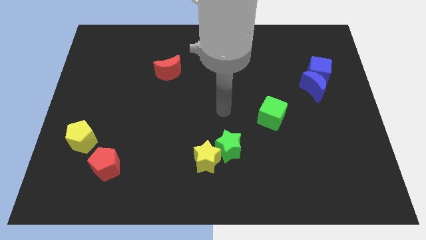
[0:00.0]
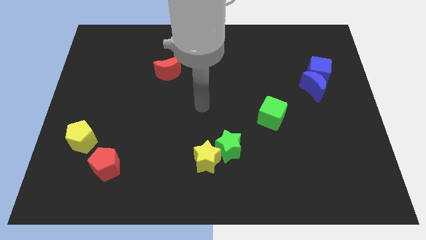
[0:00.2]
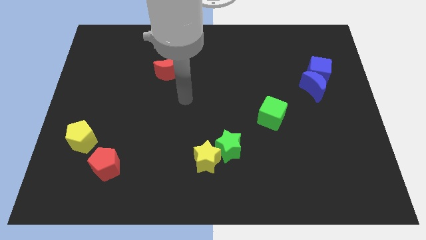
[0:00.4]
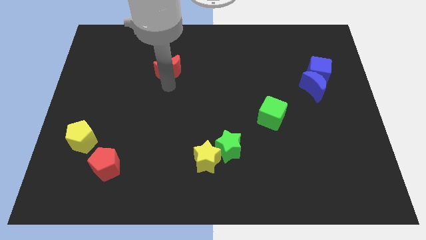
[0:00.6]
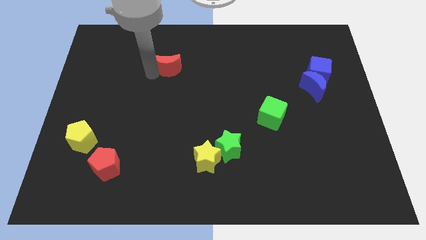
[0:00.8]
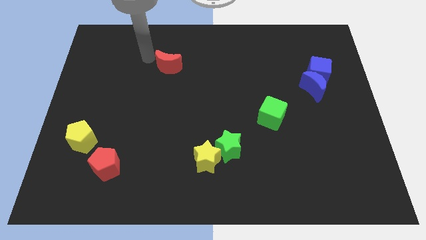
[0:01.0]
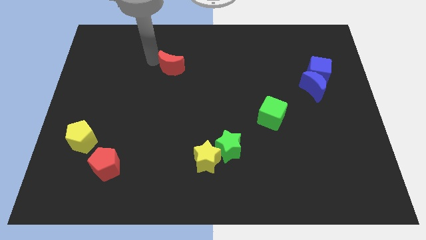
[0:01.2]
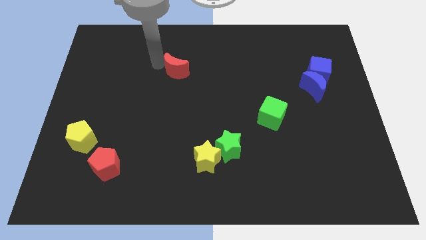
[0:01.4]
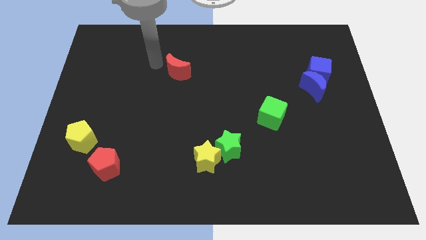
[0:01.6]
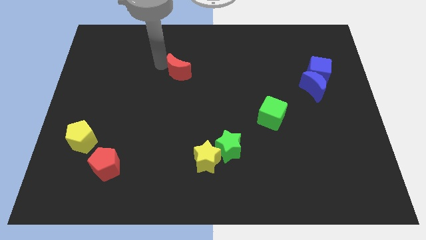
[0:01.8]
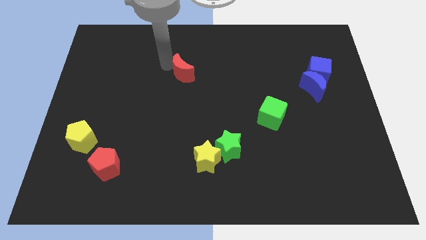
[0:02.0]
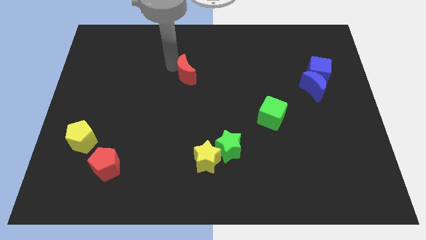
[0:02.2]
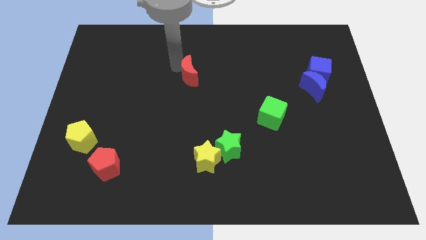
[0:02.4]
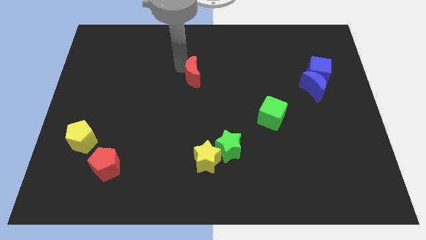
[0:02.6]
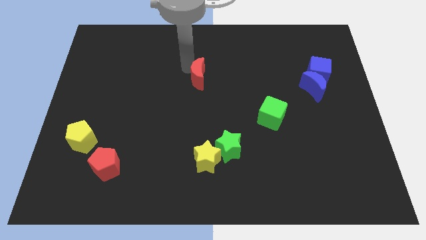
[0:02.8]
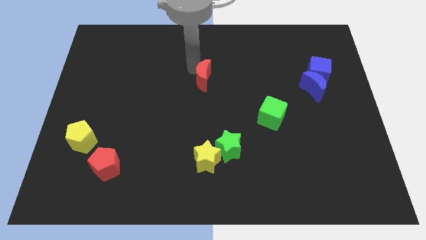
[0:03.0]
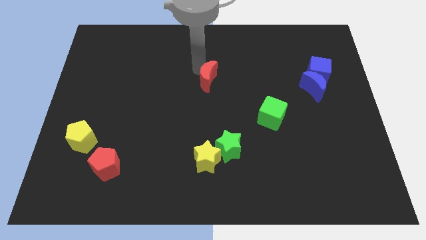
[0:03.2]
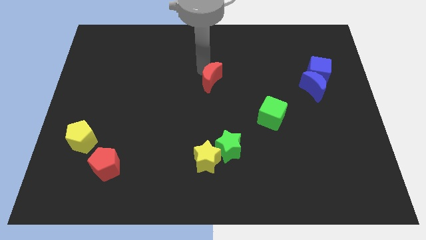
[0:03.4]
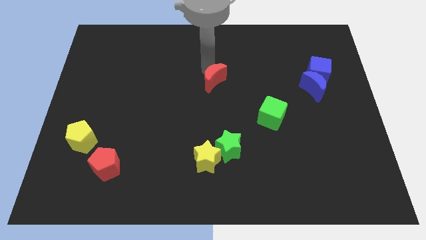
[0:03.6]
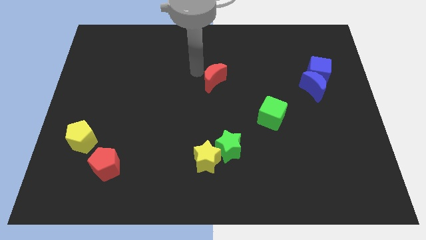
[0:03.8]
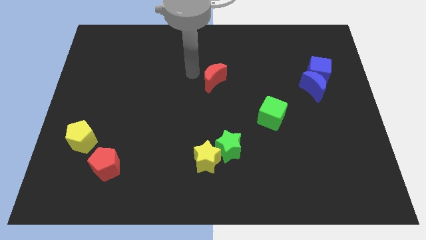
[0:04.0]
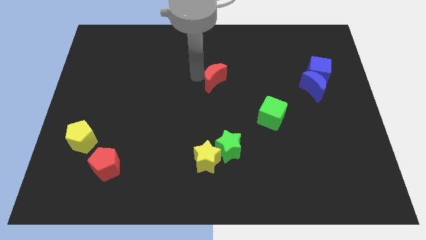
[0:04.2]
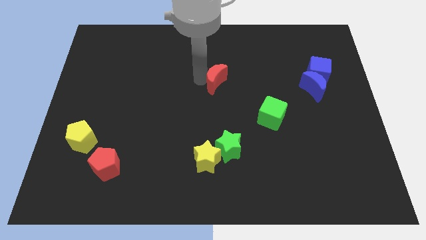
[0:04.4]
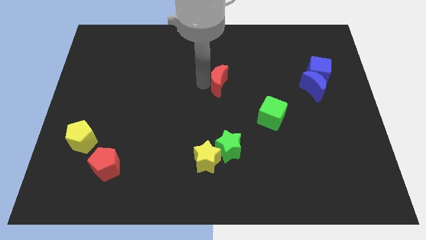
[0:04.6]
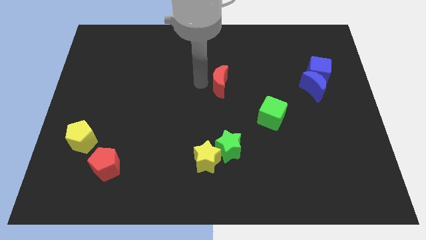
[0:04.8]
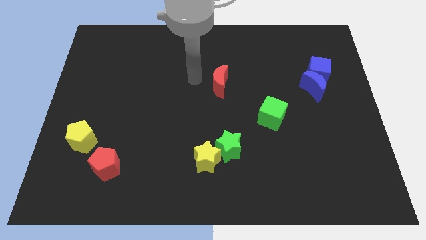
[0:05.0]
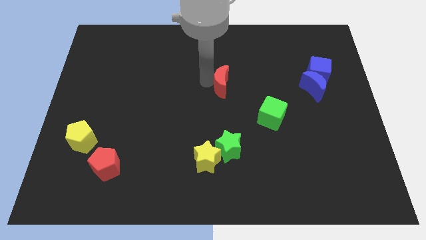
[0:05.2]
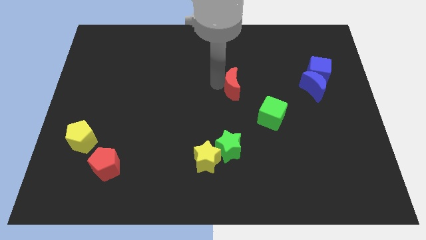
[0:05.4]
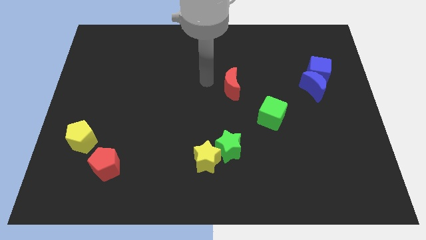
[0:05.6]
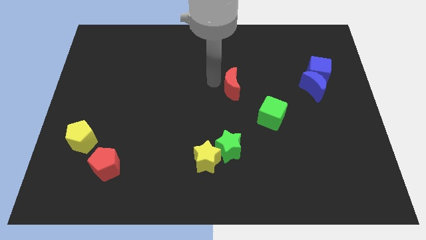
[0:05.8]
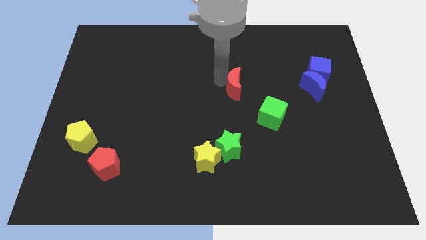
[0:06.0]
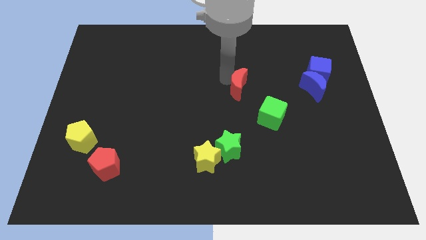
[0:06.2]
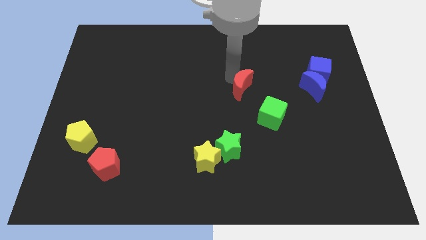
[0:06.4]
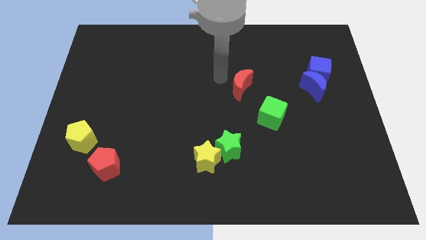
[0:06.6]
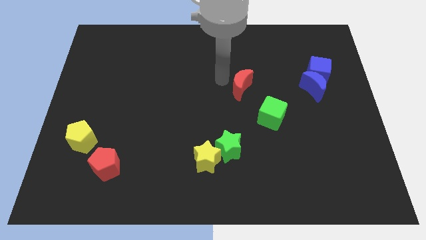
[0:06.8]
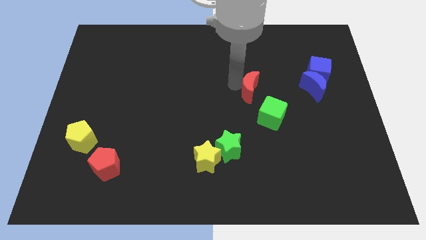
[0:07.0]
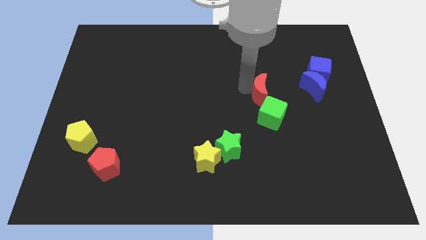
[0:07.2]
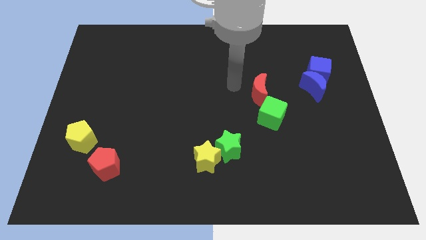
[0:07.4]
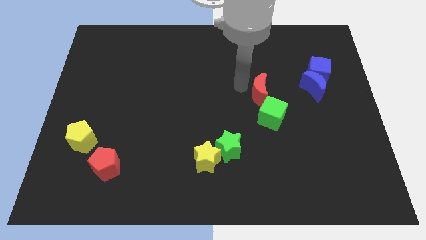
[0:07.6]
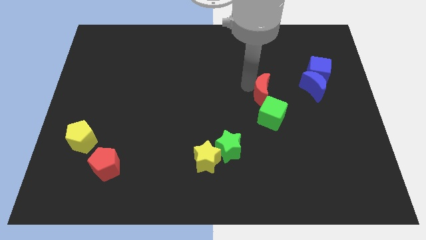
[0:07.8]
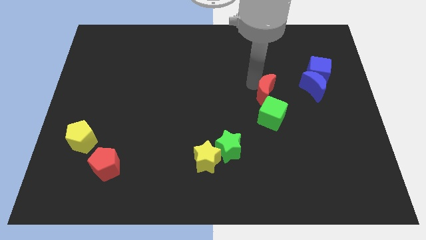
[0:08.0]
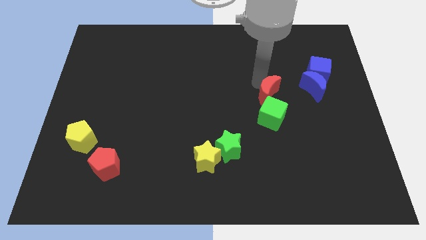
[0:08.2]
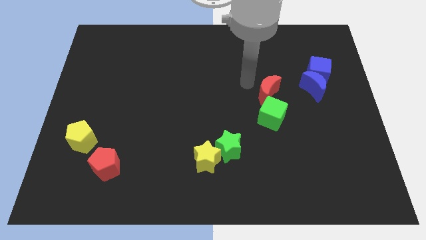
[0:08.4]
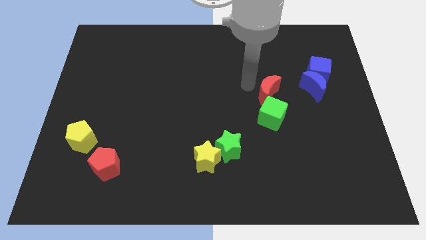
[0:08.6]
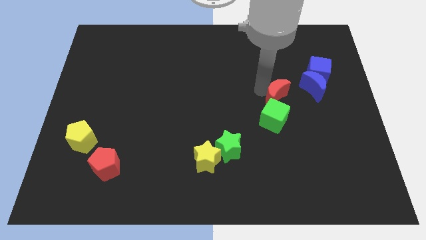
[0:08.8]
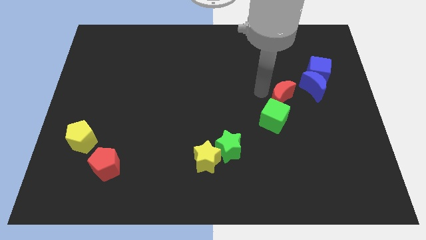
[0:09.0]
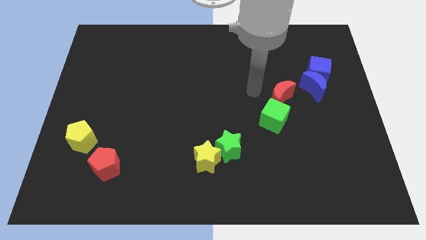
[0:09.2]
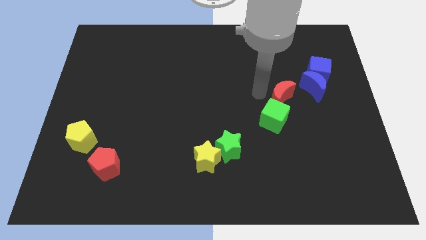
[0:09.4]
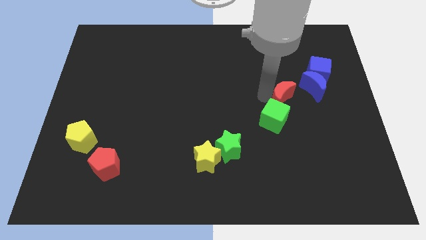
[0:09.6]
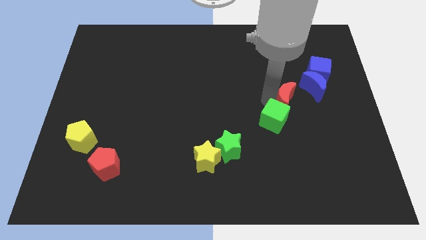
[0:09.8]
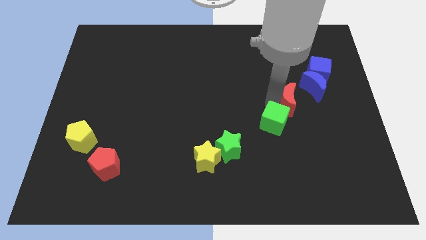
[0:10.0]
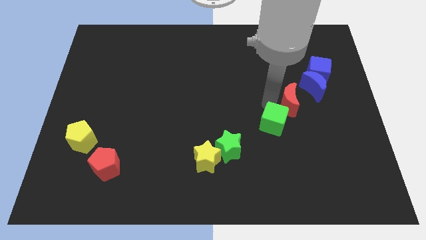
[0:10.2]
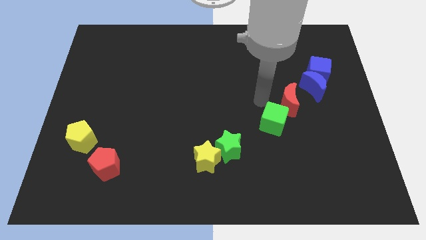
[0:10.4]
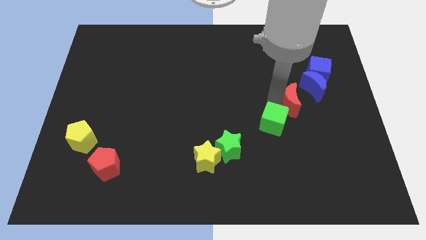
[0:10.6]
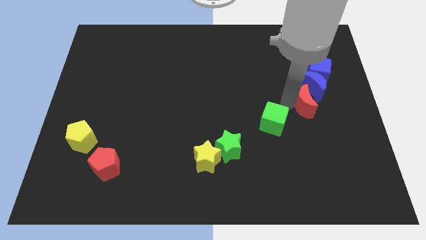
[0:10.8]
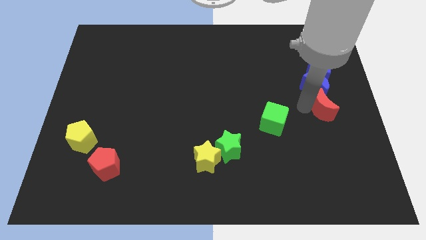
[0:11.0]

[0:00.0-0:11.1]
move the red moon to the right side of the board
